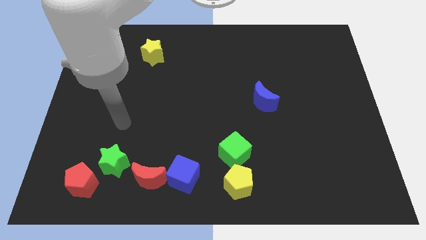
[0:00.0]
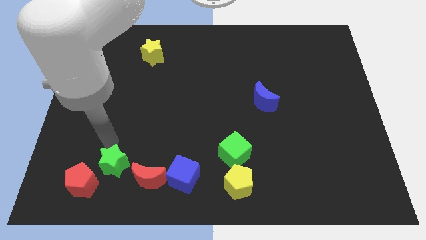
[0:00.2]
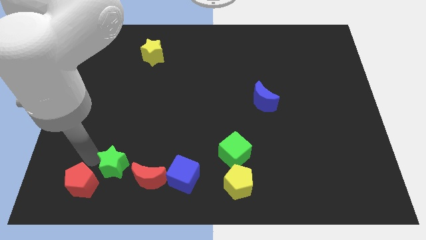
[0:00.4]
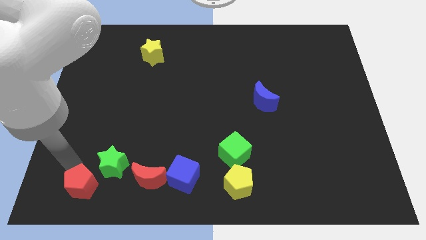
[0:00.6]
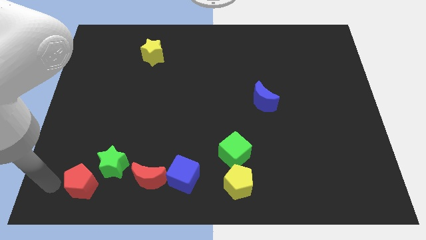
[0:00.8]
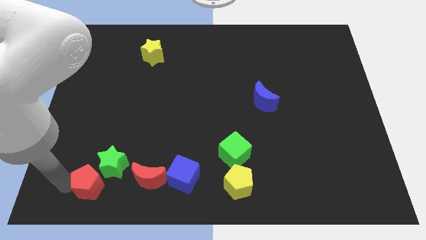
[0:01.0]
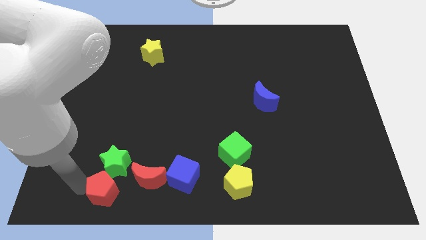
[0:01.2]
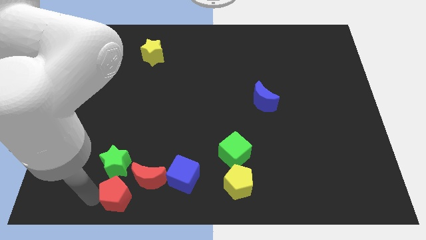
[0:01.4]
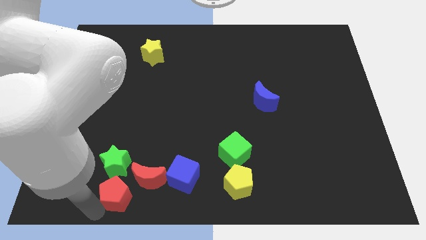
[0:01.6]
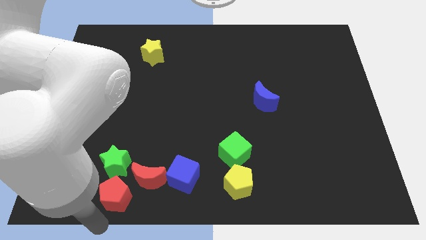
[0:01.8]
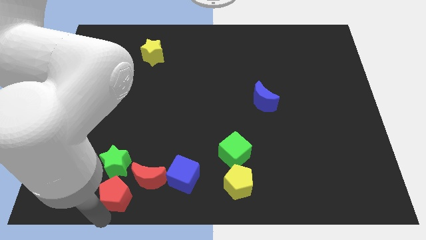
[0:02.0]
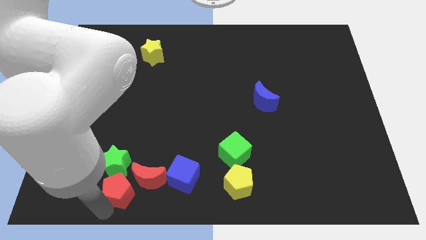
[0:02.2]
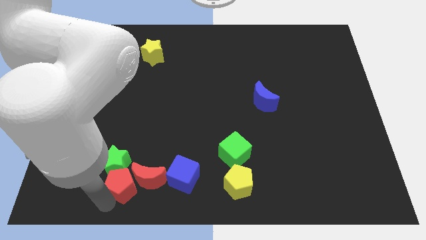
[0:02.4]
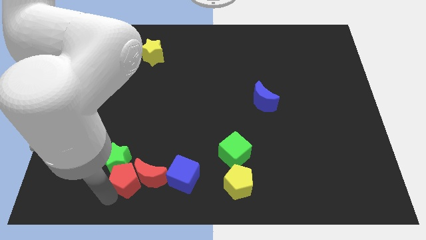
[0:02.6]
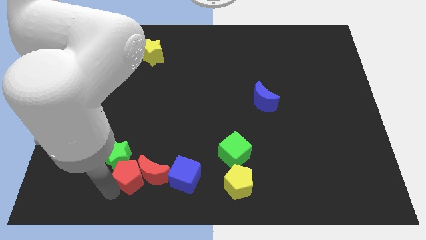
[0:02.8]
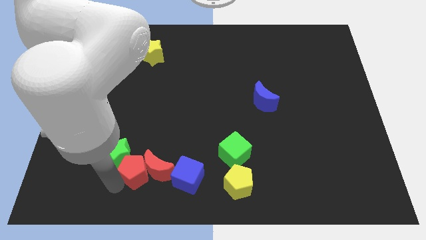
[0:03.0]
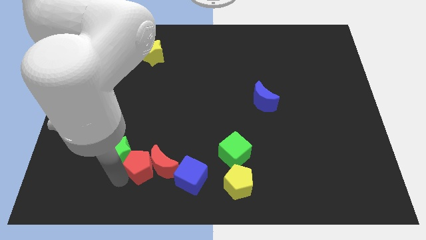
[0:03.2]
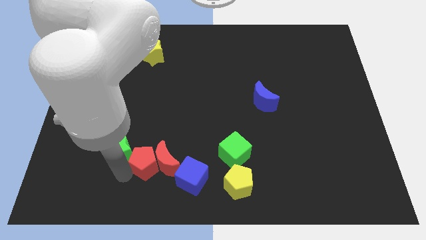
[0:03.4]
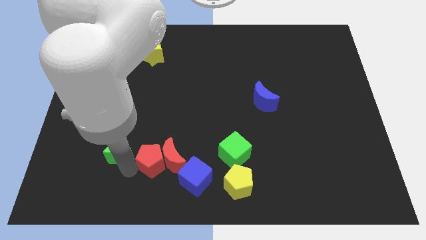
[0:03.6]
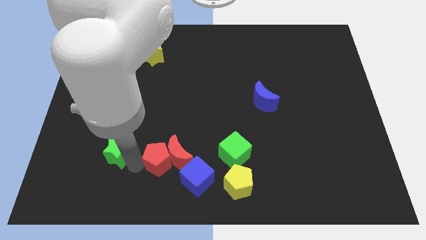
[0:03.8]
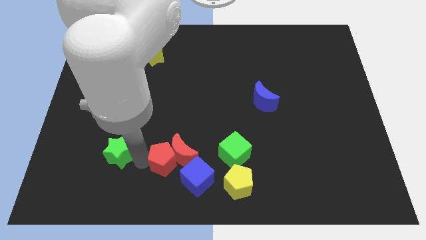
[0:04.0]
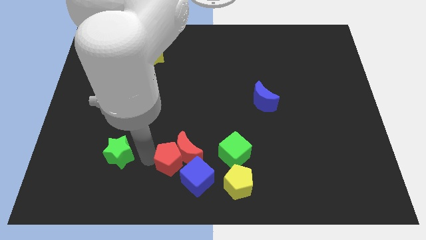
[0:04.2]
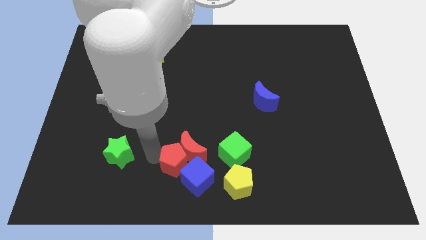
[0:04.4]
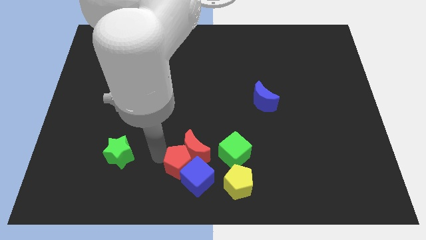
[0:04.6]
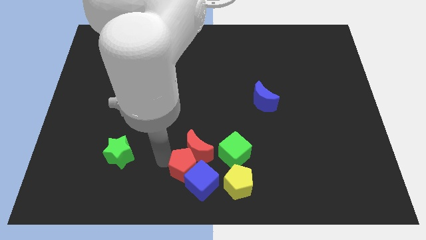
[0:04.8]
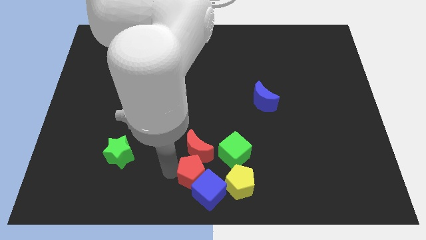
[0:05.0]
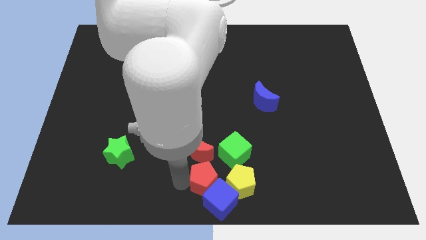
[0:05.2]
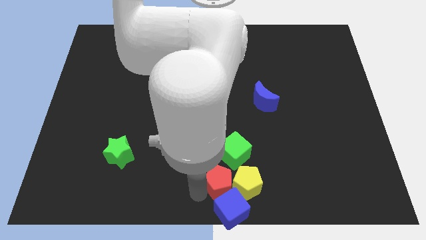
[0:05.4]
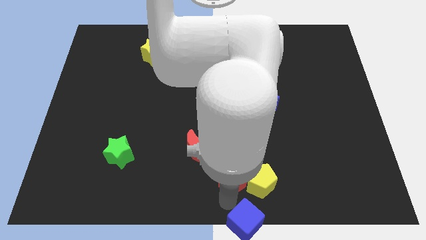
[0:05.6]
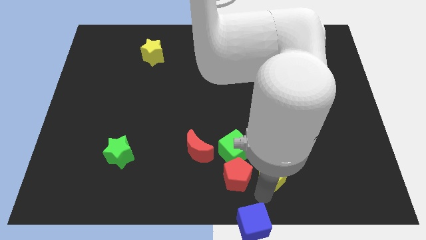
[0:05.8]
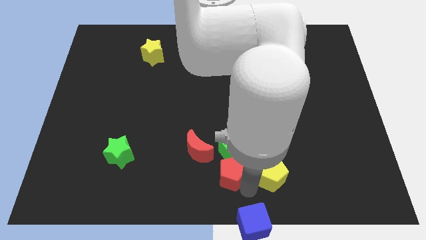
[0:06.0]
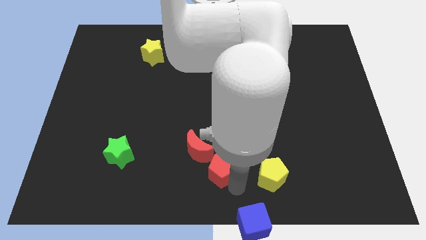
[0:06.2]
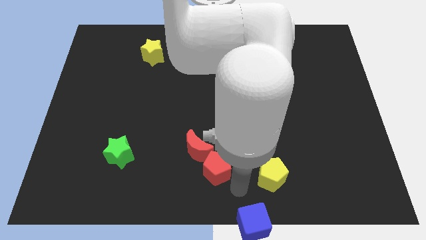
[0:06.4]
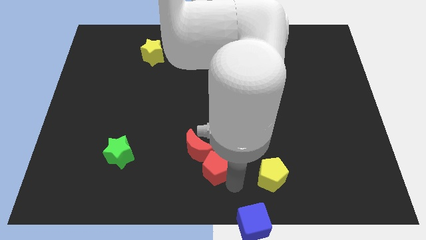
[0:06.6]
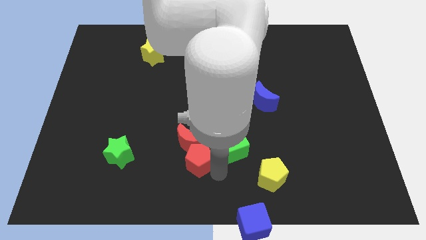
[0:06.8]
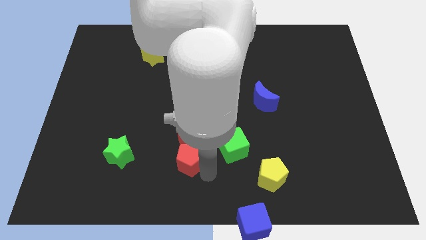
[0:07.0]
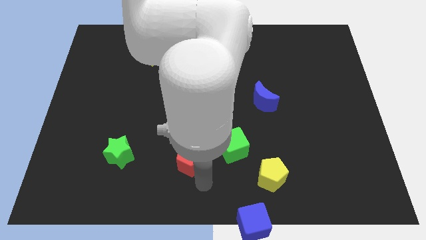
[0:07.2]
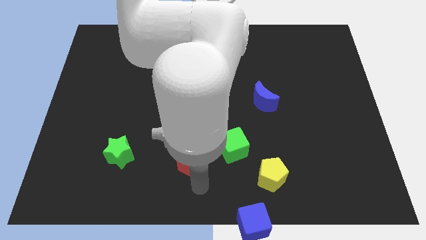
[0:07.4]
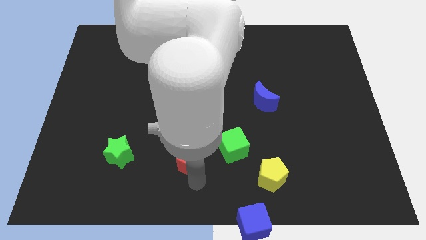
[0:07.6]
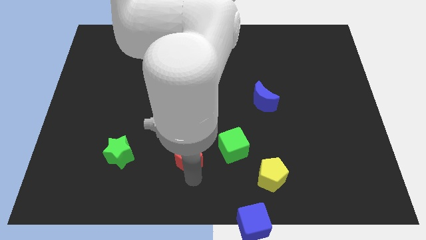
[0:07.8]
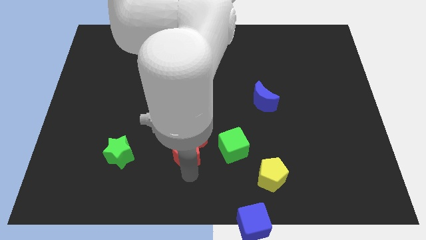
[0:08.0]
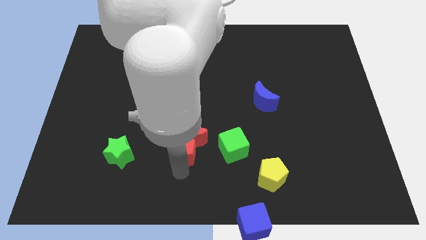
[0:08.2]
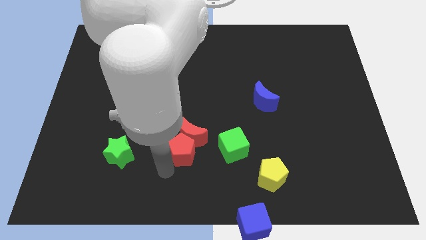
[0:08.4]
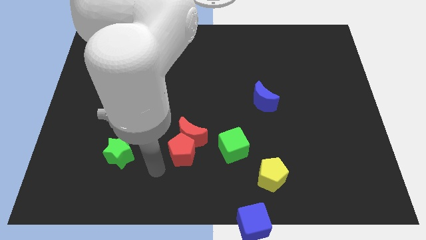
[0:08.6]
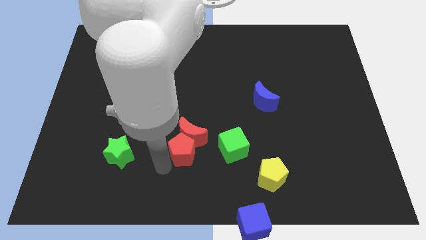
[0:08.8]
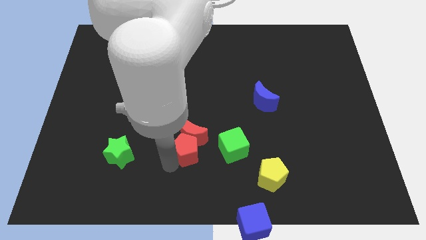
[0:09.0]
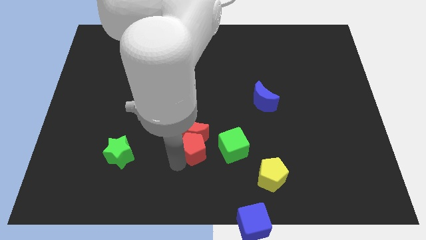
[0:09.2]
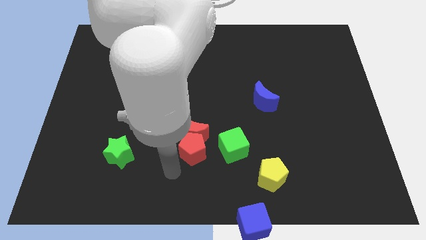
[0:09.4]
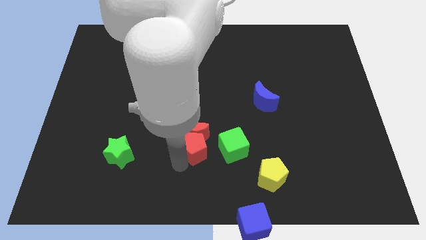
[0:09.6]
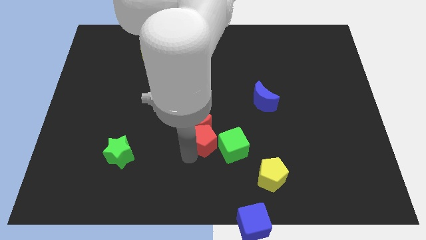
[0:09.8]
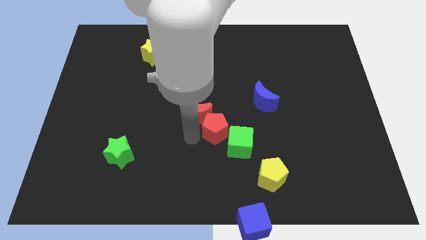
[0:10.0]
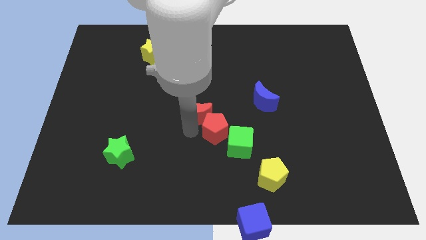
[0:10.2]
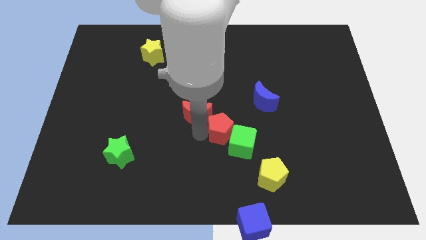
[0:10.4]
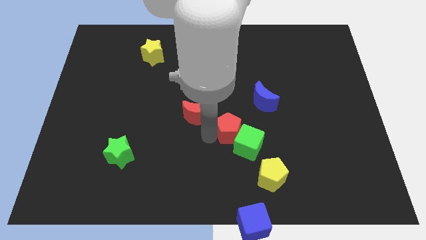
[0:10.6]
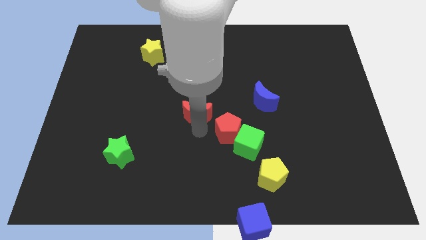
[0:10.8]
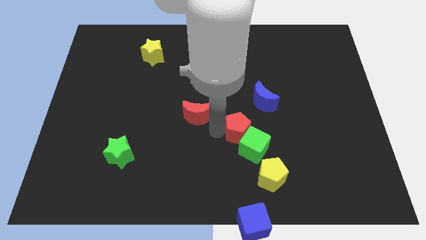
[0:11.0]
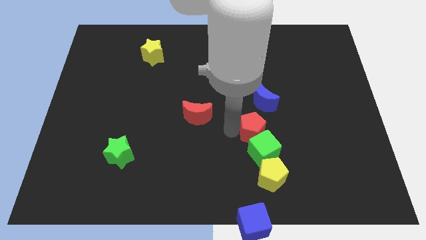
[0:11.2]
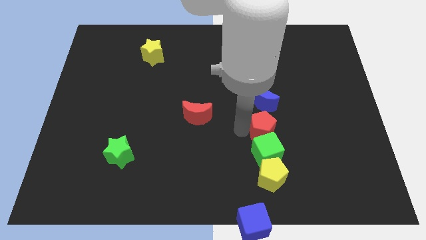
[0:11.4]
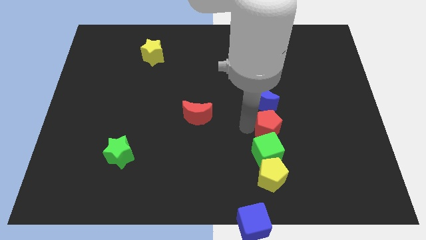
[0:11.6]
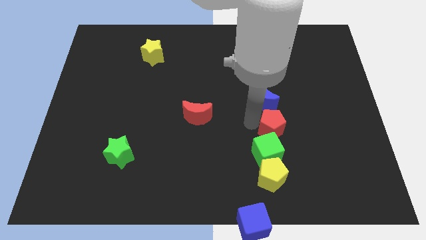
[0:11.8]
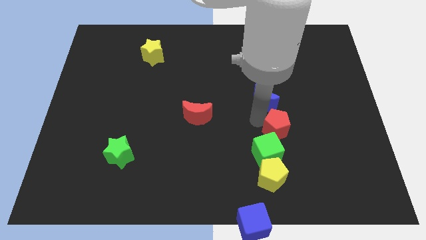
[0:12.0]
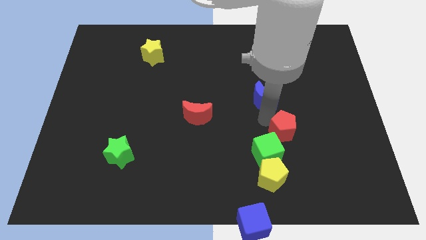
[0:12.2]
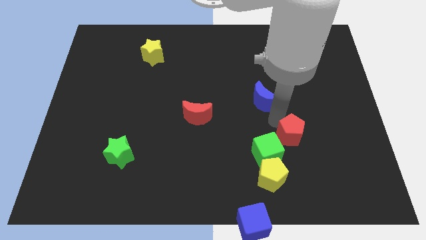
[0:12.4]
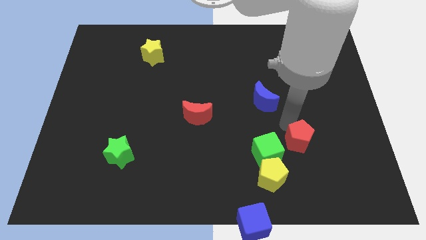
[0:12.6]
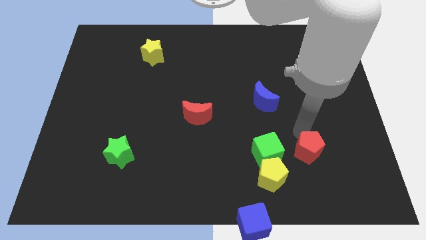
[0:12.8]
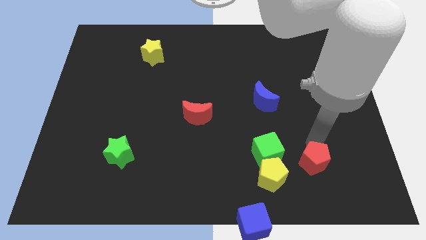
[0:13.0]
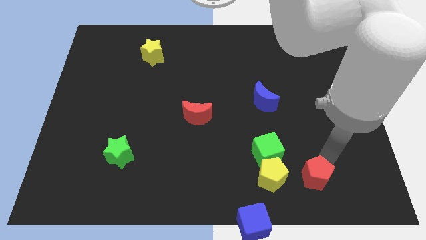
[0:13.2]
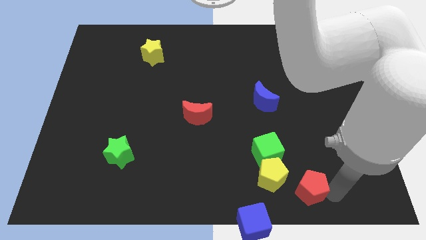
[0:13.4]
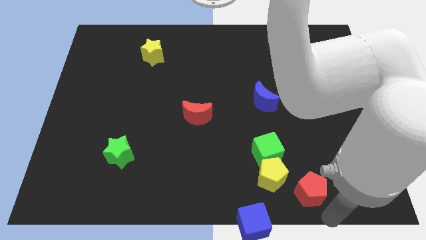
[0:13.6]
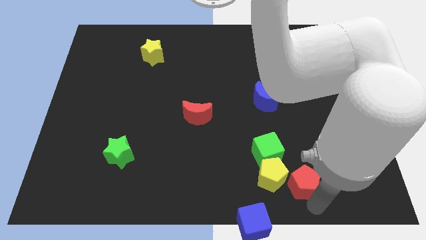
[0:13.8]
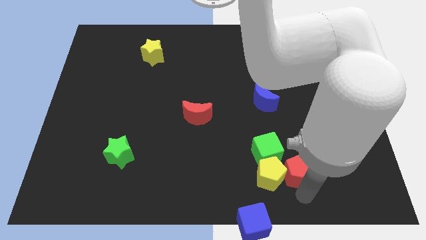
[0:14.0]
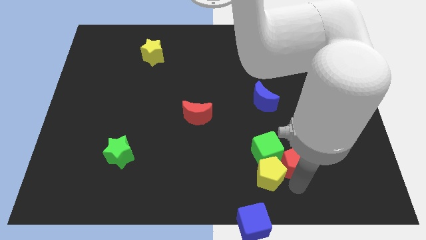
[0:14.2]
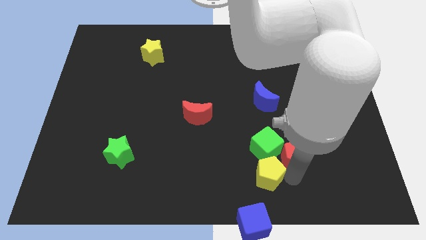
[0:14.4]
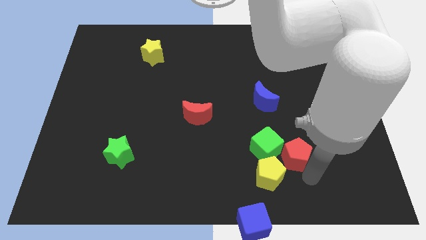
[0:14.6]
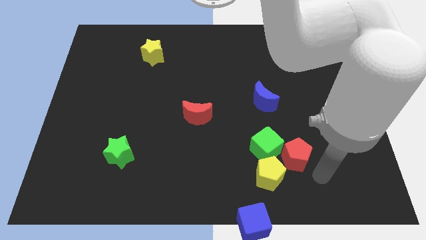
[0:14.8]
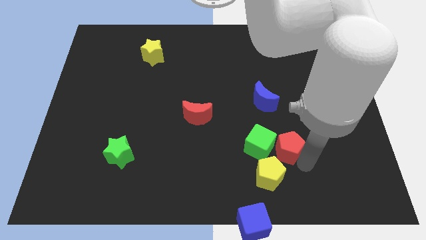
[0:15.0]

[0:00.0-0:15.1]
push the red pentagon above the yellow pentagon
